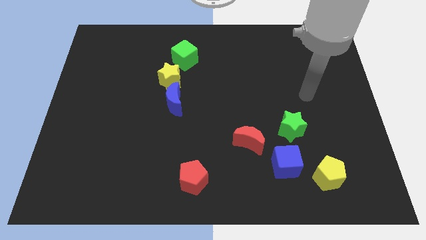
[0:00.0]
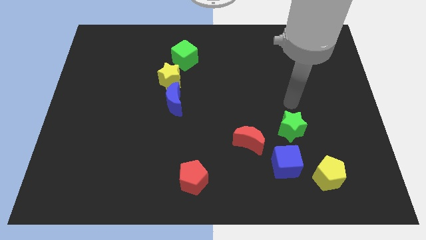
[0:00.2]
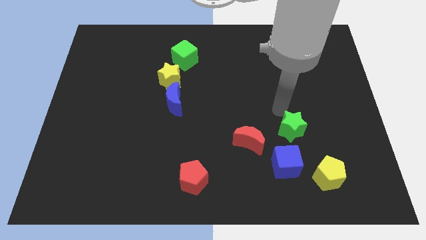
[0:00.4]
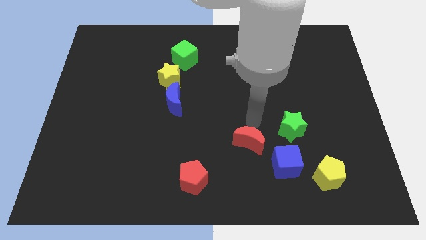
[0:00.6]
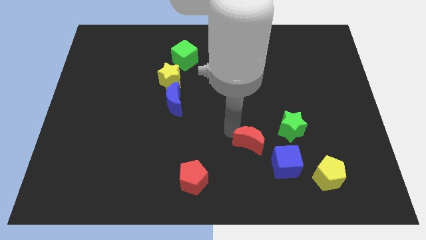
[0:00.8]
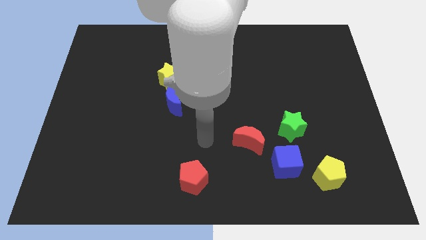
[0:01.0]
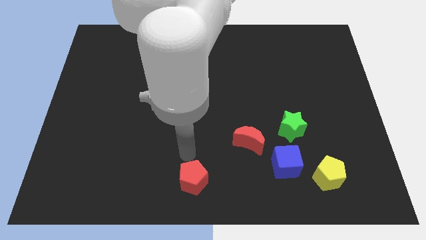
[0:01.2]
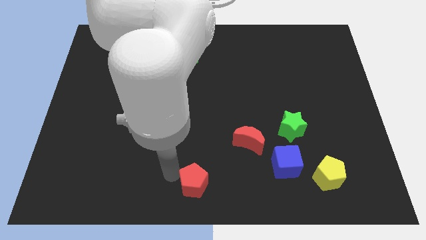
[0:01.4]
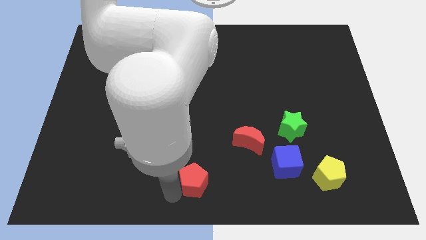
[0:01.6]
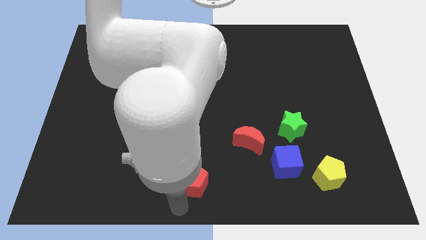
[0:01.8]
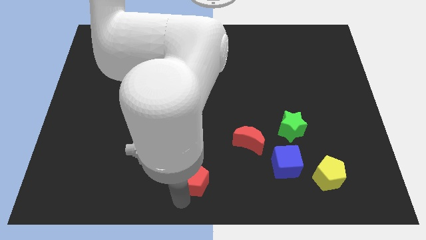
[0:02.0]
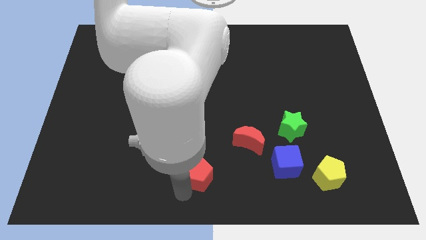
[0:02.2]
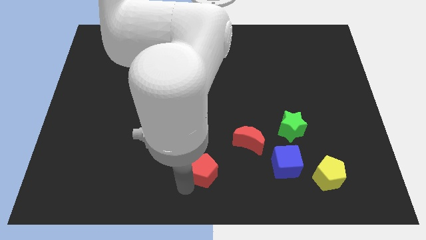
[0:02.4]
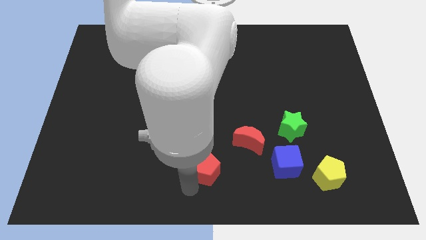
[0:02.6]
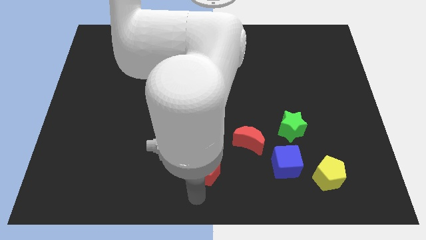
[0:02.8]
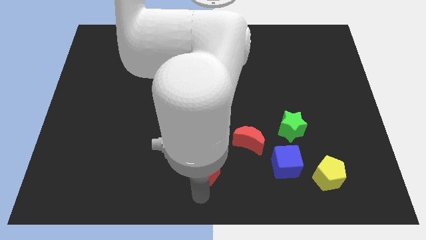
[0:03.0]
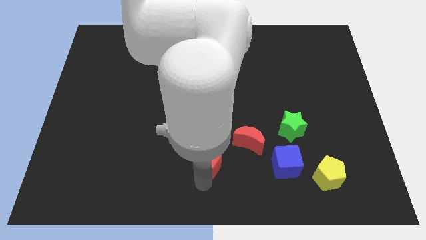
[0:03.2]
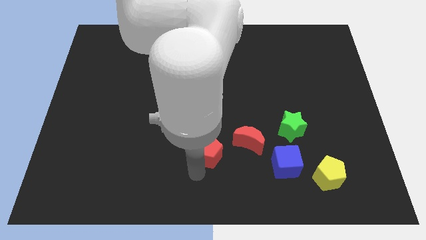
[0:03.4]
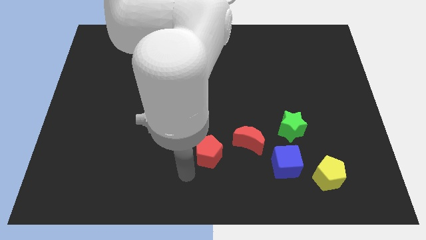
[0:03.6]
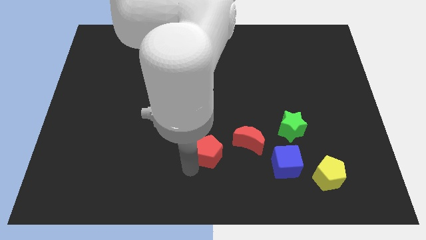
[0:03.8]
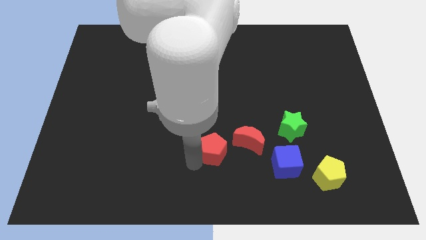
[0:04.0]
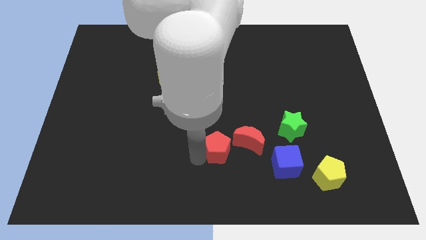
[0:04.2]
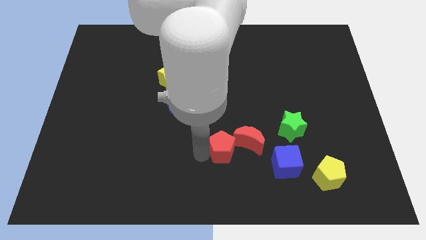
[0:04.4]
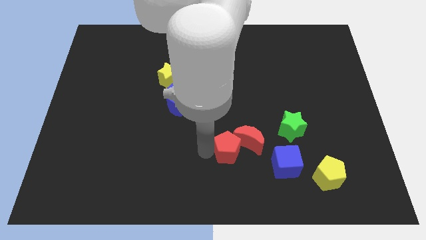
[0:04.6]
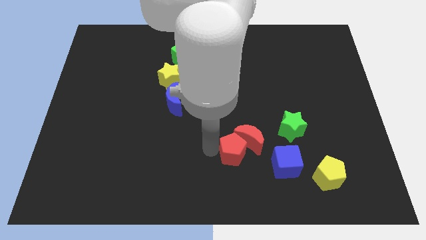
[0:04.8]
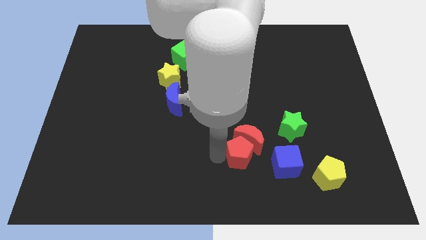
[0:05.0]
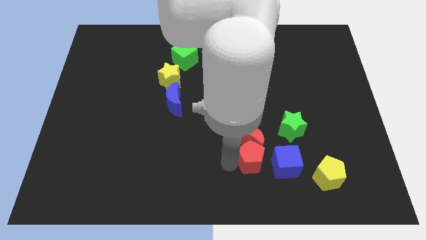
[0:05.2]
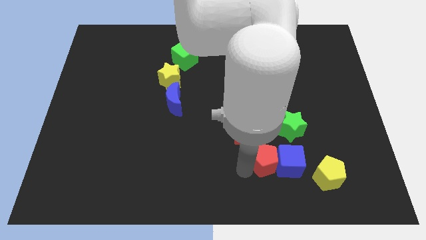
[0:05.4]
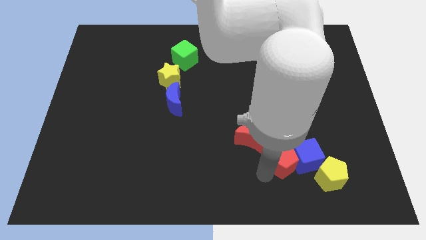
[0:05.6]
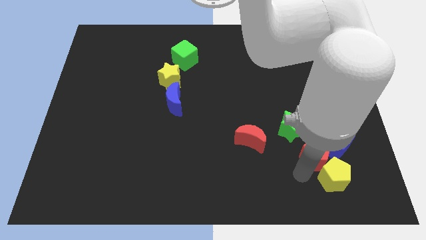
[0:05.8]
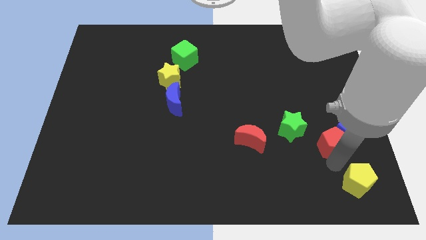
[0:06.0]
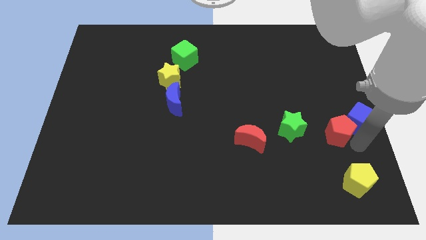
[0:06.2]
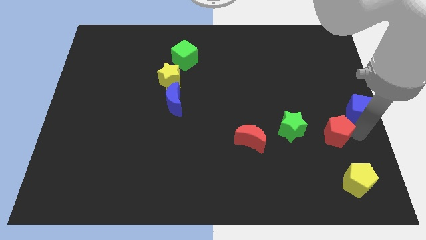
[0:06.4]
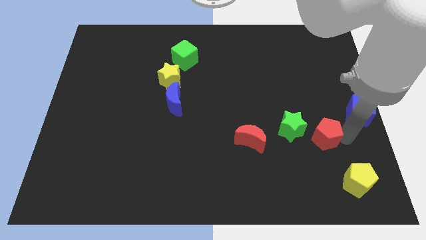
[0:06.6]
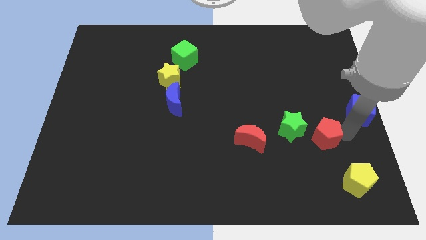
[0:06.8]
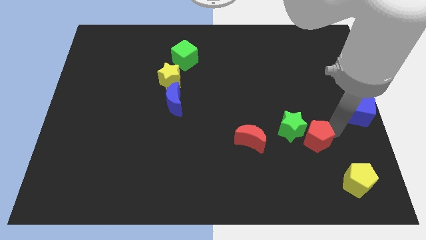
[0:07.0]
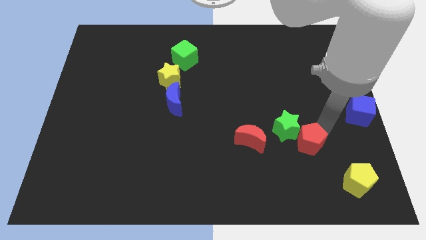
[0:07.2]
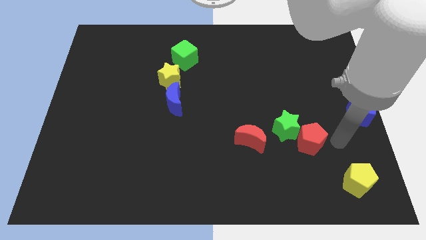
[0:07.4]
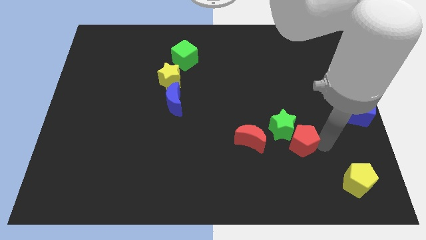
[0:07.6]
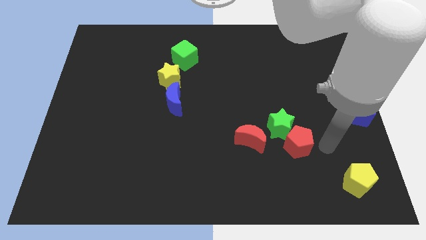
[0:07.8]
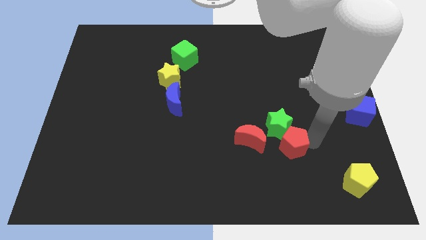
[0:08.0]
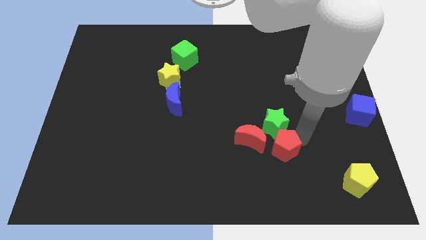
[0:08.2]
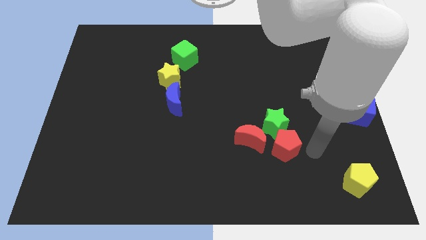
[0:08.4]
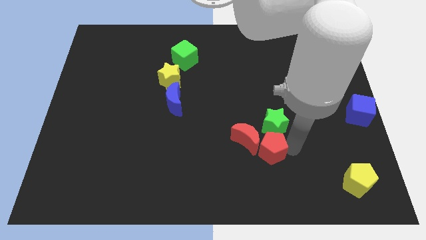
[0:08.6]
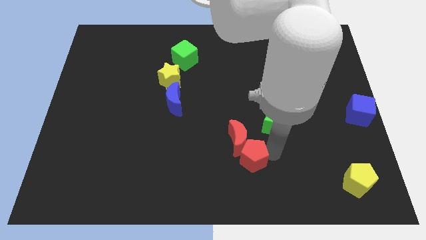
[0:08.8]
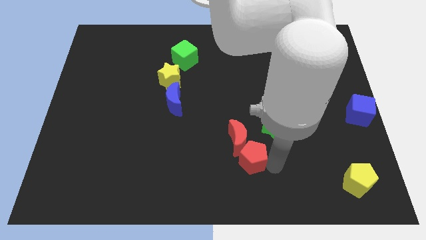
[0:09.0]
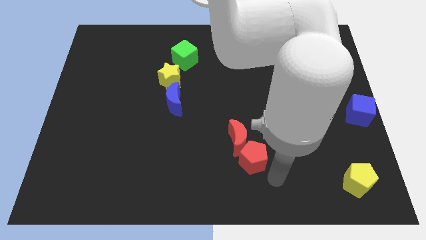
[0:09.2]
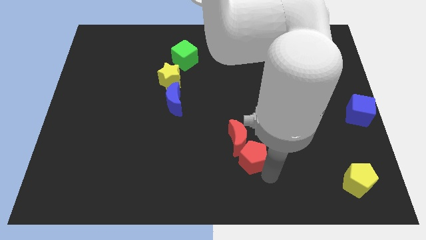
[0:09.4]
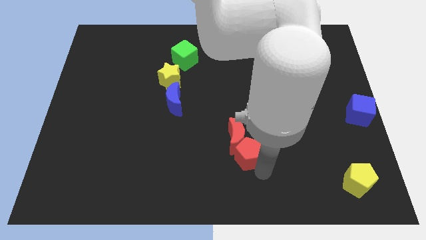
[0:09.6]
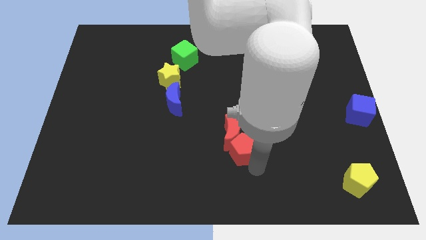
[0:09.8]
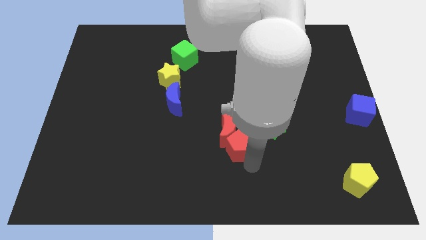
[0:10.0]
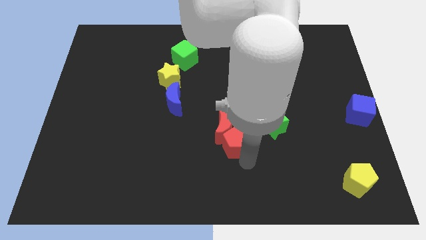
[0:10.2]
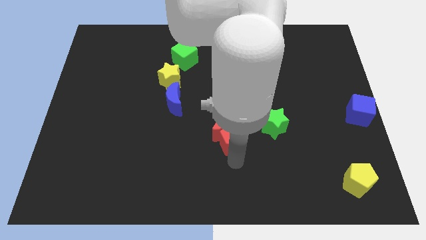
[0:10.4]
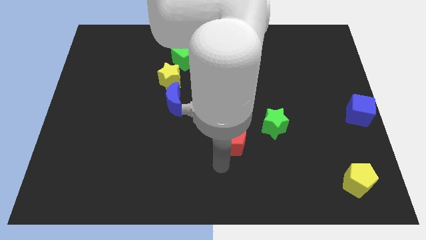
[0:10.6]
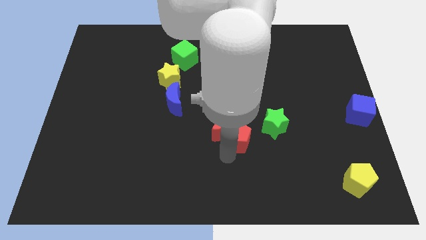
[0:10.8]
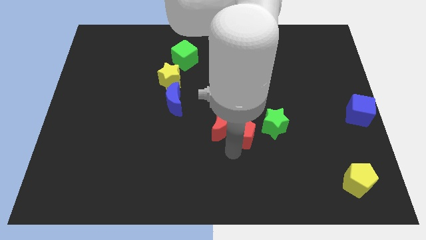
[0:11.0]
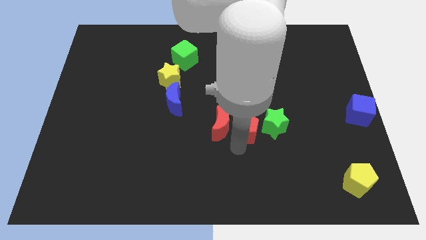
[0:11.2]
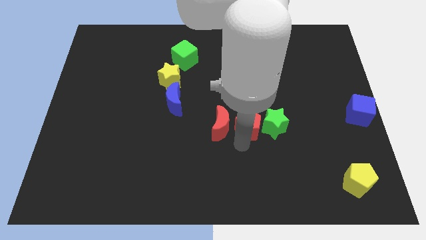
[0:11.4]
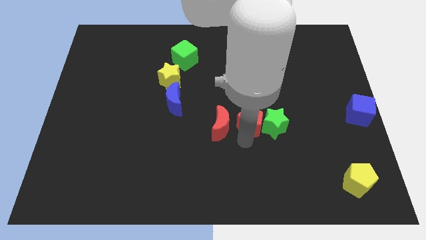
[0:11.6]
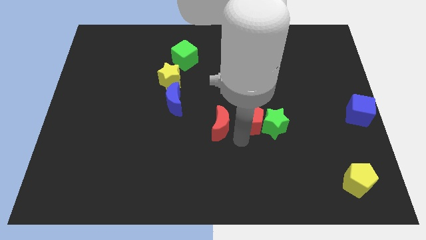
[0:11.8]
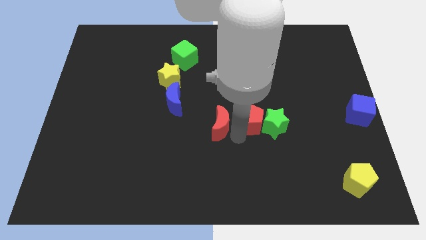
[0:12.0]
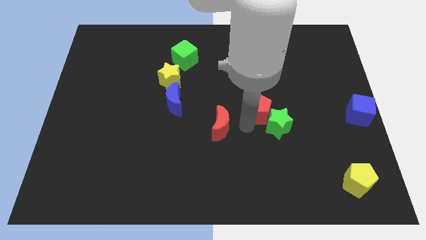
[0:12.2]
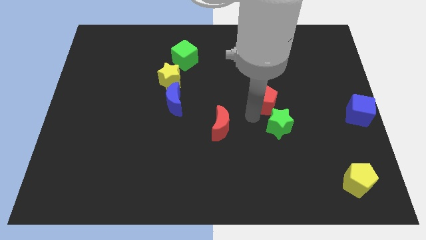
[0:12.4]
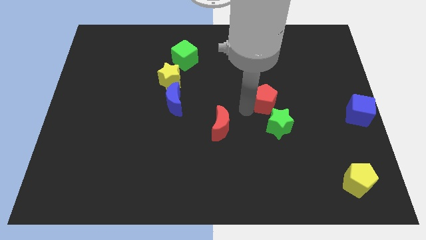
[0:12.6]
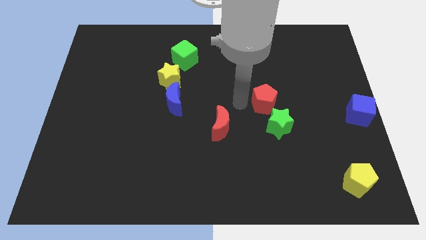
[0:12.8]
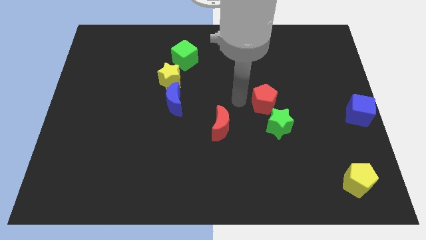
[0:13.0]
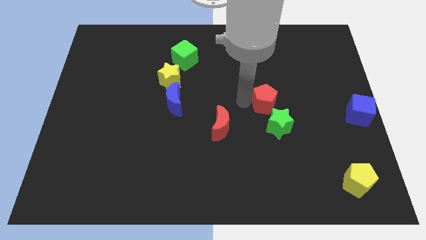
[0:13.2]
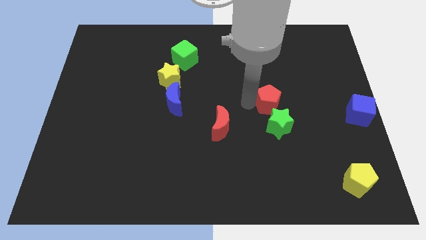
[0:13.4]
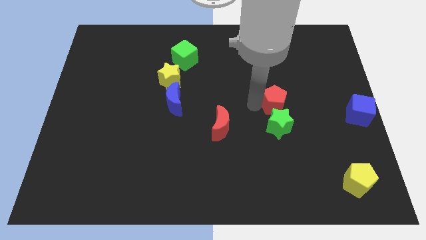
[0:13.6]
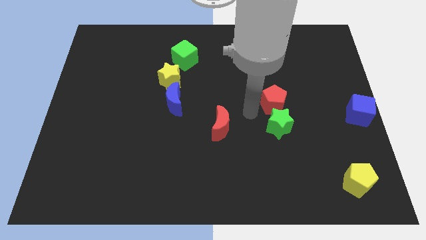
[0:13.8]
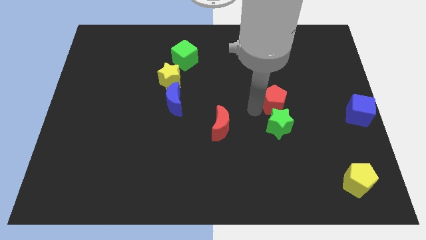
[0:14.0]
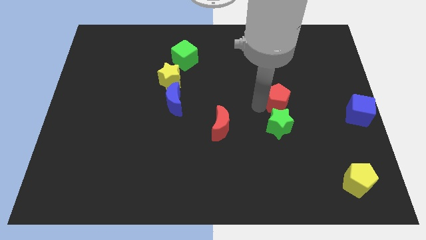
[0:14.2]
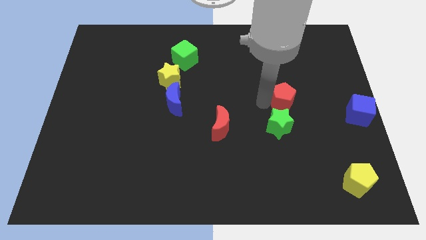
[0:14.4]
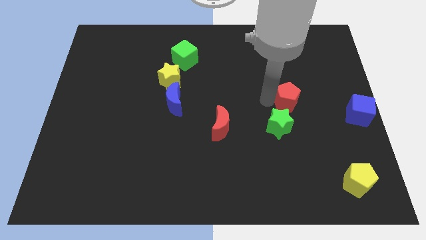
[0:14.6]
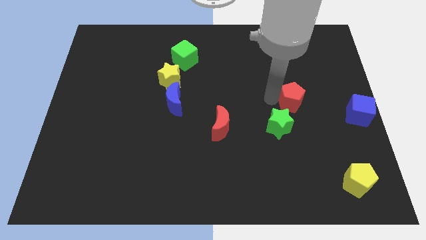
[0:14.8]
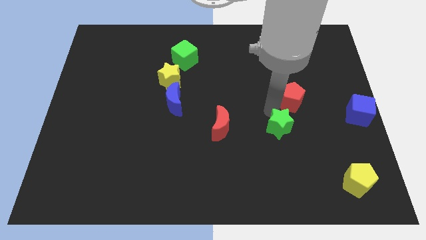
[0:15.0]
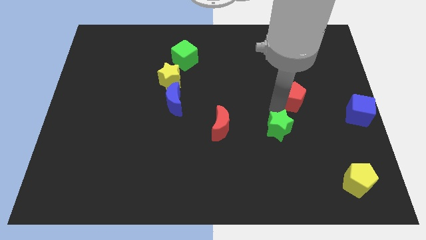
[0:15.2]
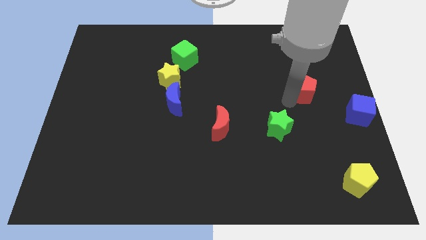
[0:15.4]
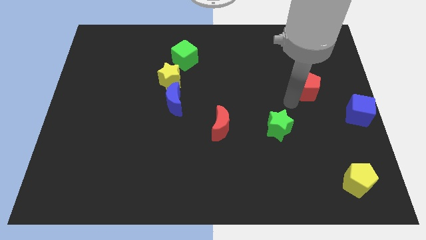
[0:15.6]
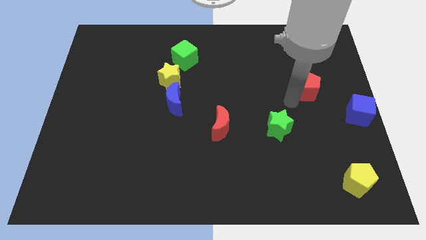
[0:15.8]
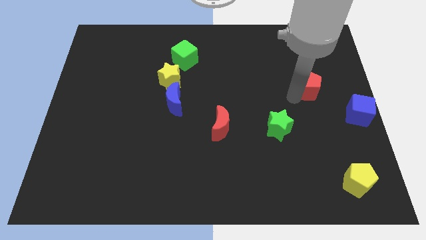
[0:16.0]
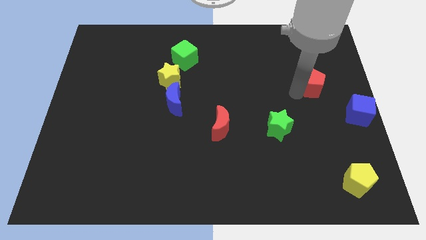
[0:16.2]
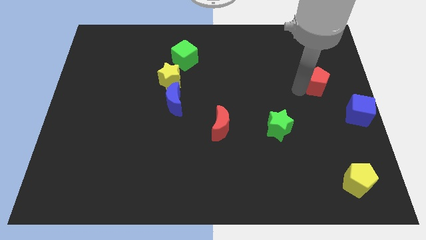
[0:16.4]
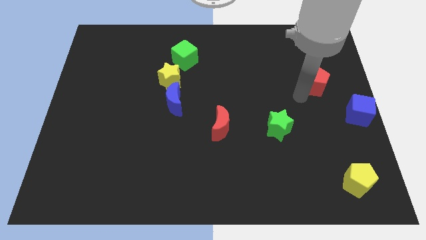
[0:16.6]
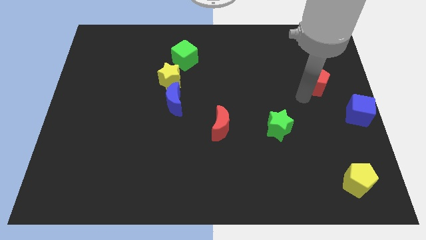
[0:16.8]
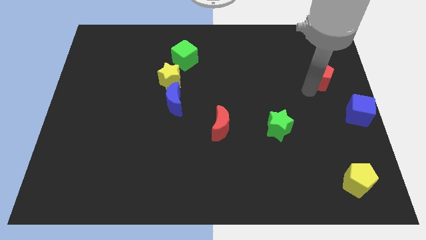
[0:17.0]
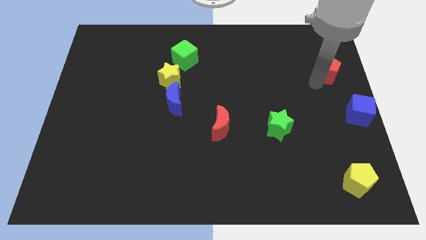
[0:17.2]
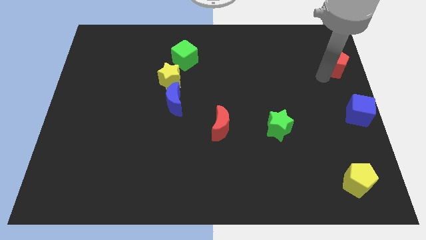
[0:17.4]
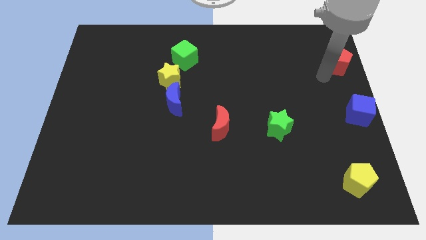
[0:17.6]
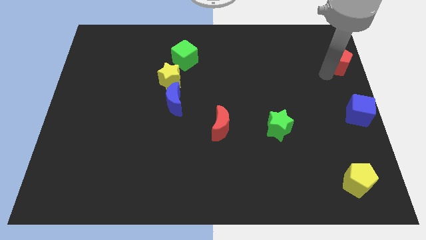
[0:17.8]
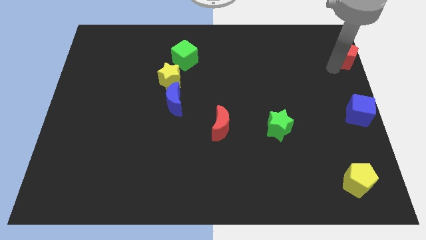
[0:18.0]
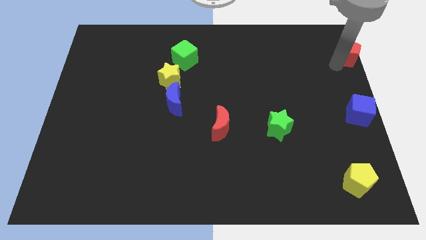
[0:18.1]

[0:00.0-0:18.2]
put the red pentagon to the top right
